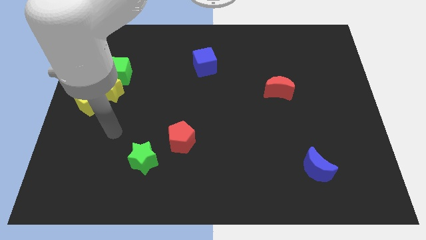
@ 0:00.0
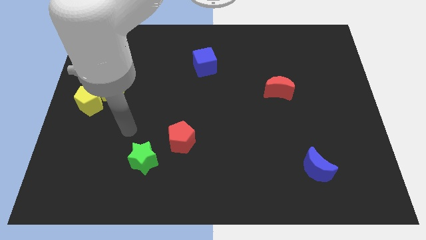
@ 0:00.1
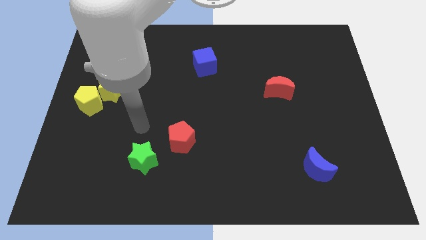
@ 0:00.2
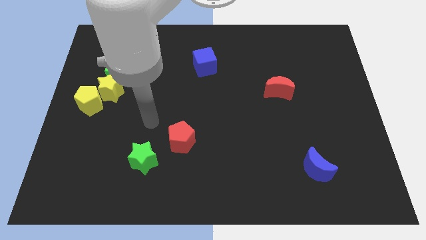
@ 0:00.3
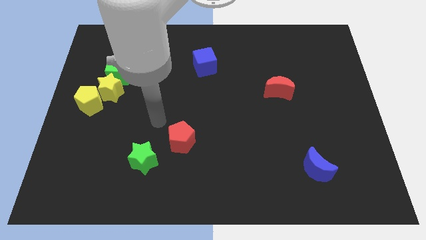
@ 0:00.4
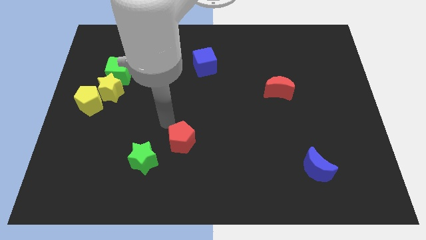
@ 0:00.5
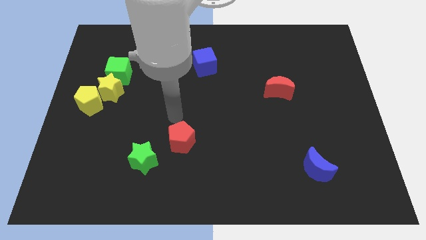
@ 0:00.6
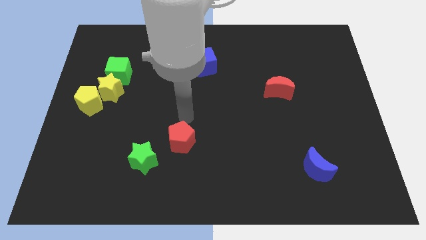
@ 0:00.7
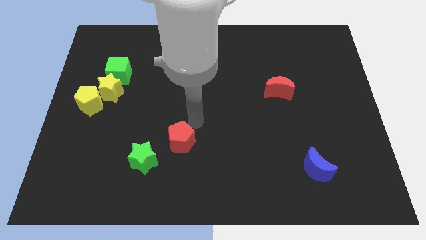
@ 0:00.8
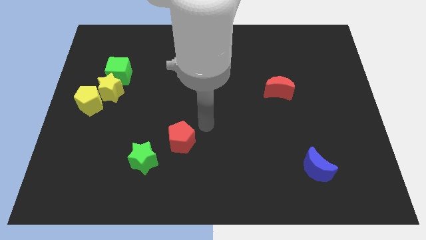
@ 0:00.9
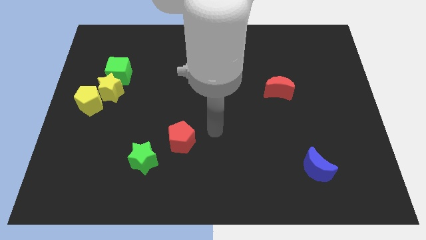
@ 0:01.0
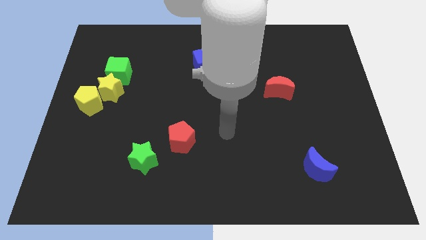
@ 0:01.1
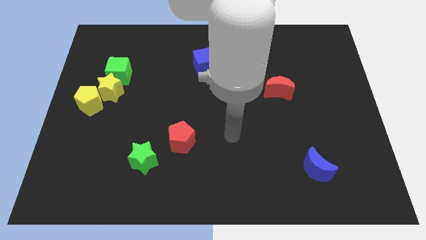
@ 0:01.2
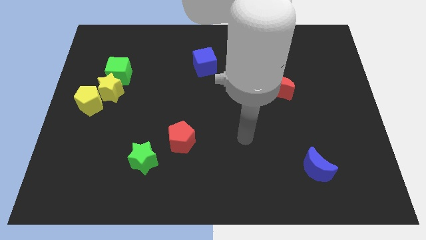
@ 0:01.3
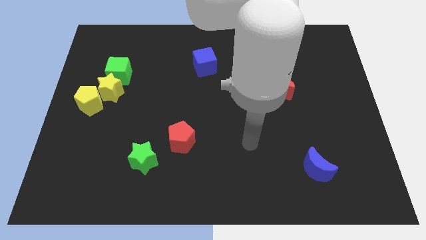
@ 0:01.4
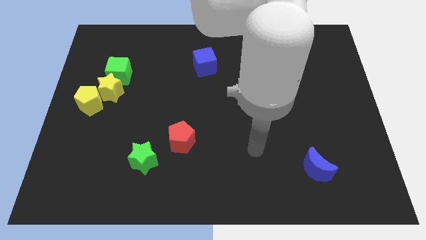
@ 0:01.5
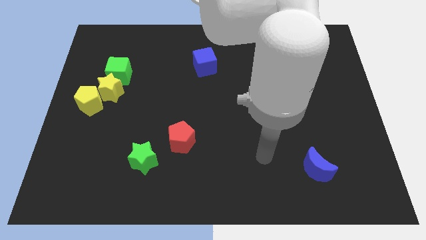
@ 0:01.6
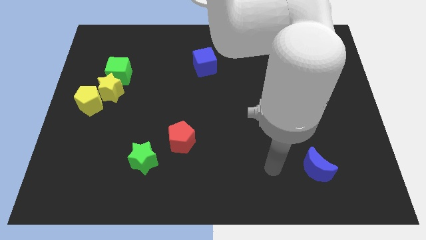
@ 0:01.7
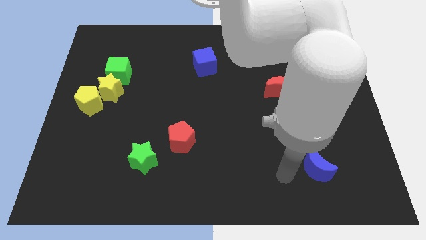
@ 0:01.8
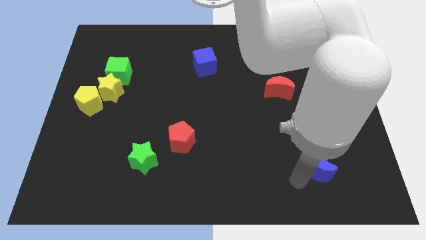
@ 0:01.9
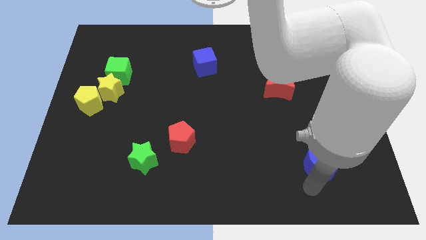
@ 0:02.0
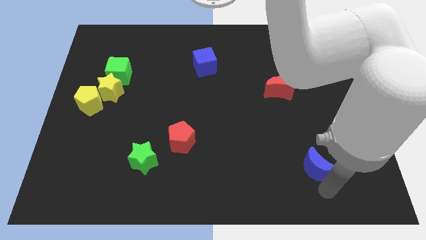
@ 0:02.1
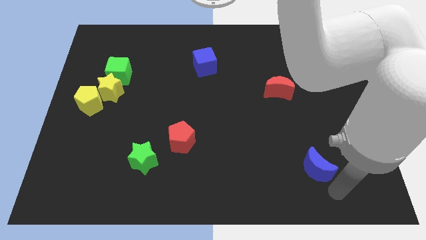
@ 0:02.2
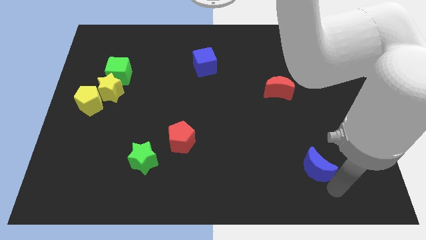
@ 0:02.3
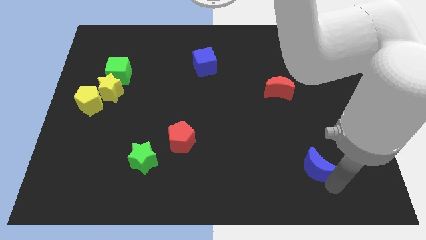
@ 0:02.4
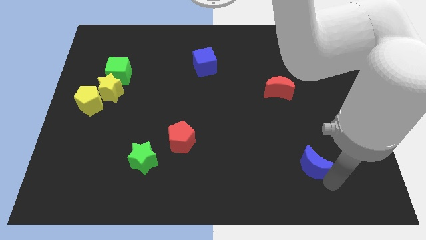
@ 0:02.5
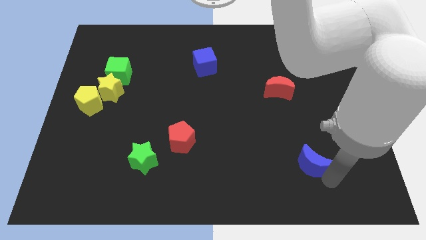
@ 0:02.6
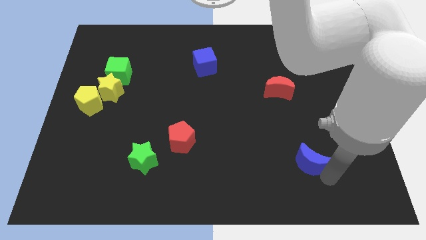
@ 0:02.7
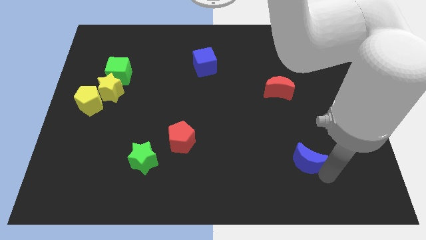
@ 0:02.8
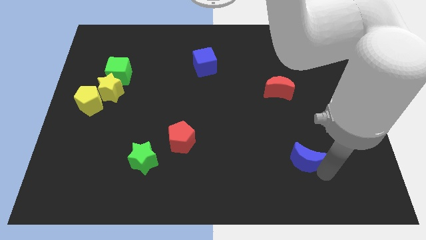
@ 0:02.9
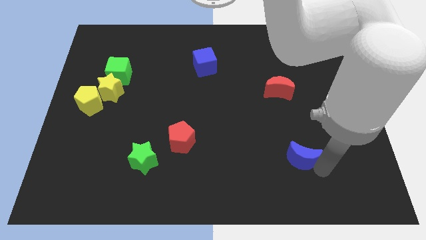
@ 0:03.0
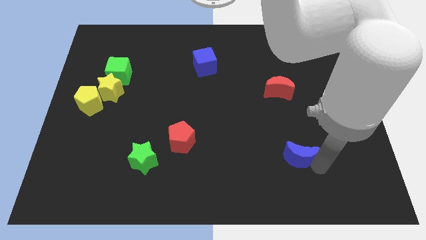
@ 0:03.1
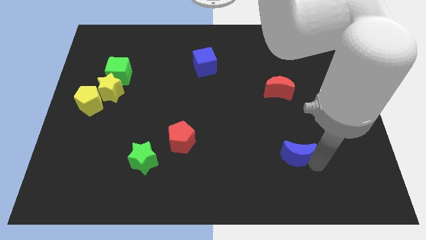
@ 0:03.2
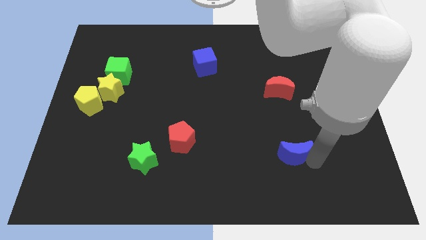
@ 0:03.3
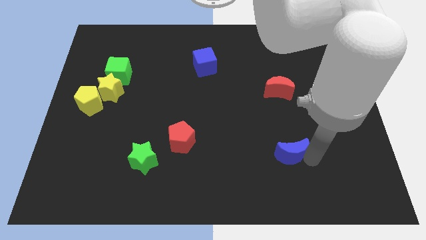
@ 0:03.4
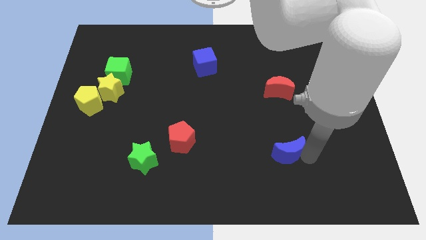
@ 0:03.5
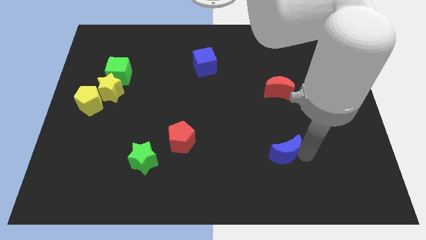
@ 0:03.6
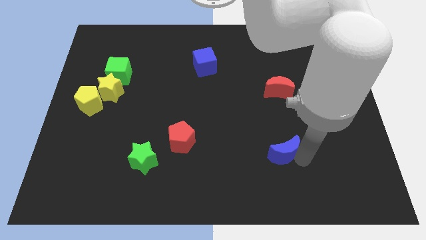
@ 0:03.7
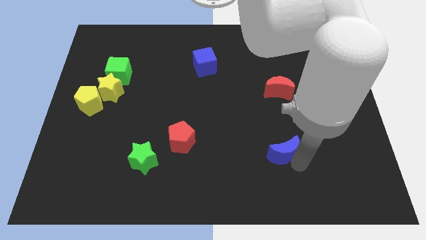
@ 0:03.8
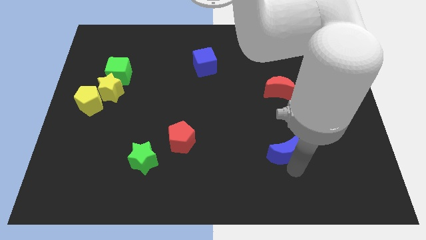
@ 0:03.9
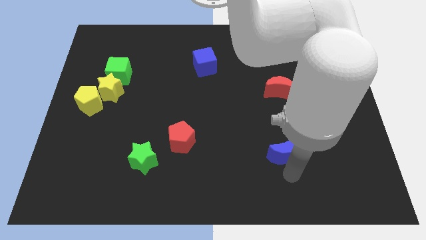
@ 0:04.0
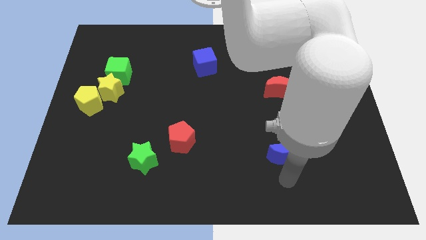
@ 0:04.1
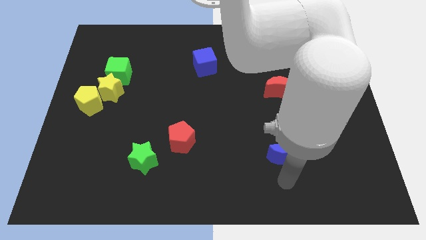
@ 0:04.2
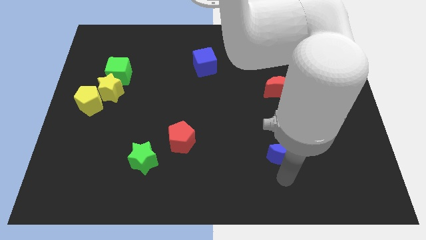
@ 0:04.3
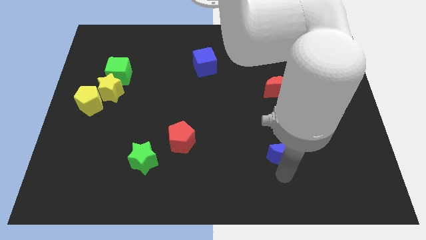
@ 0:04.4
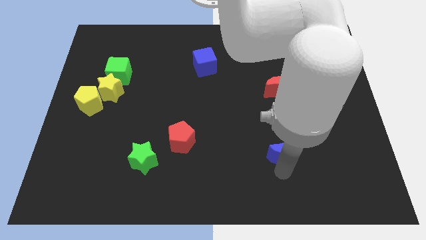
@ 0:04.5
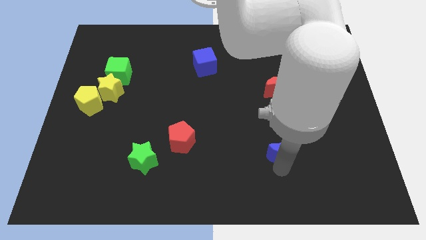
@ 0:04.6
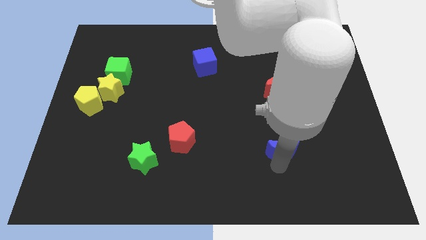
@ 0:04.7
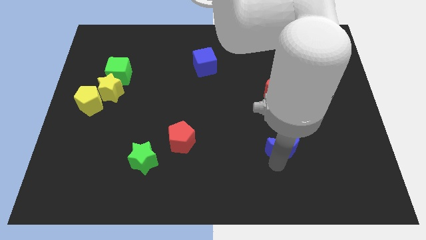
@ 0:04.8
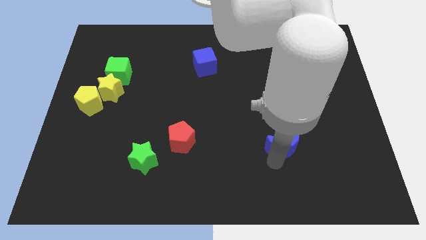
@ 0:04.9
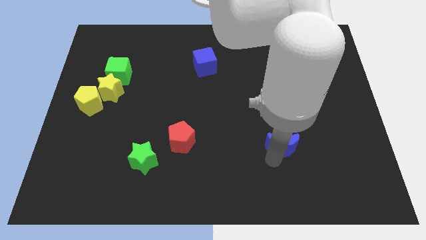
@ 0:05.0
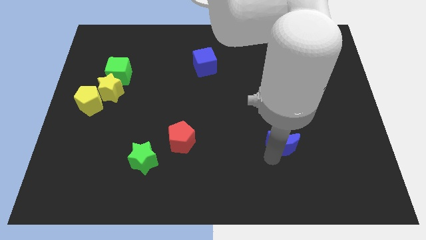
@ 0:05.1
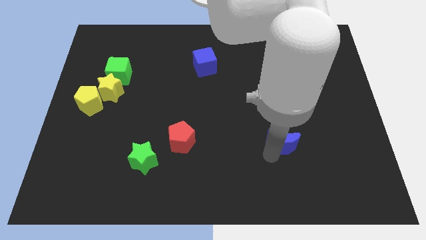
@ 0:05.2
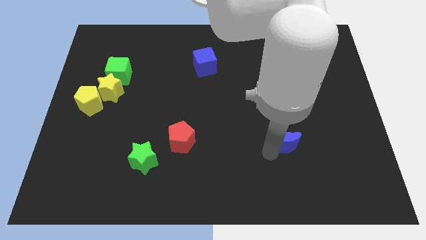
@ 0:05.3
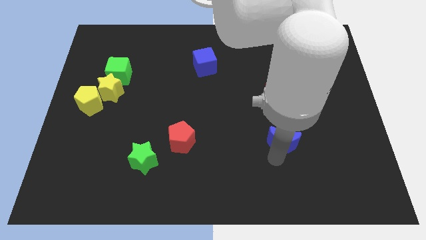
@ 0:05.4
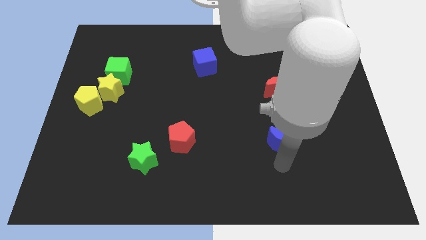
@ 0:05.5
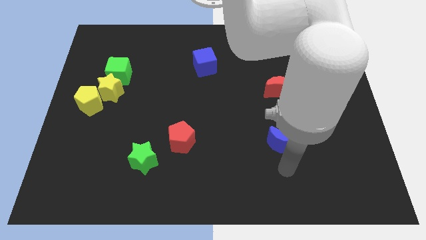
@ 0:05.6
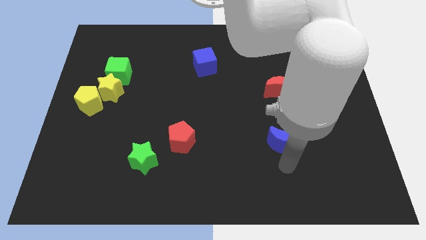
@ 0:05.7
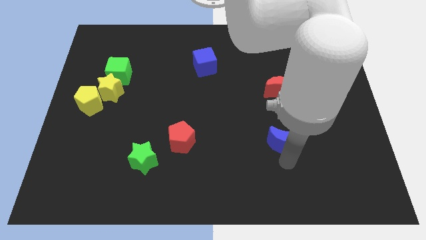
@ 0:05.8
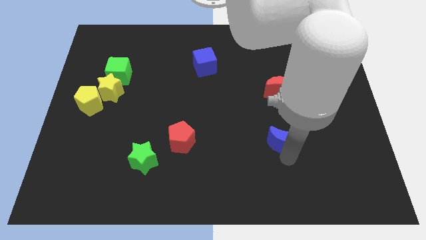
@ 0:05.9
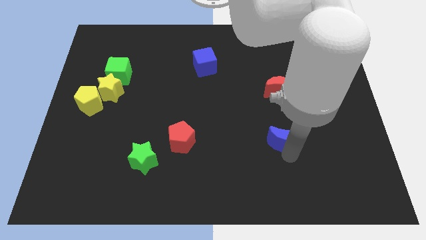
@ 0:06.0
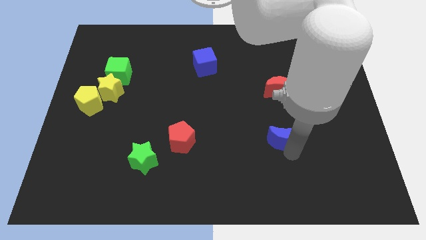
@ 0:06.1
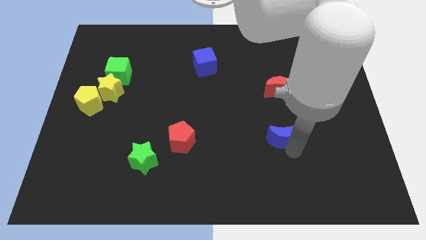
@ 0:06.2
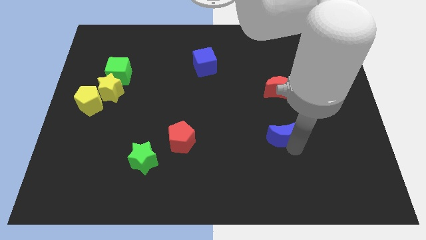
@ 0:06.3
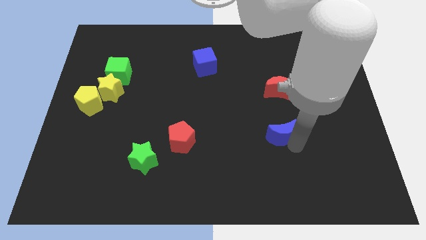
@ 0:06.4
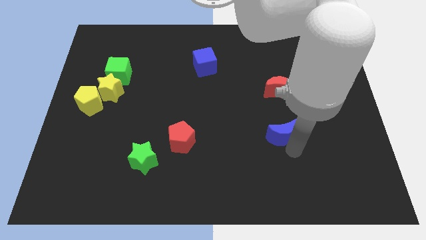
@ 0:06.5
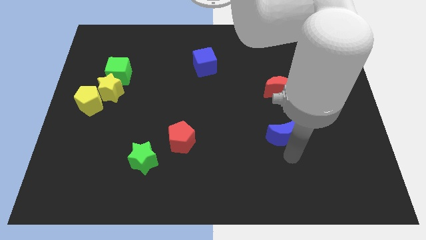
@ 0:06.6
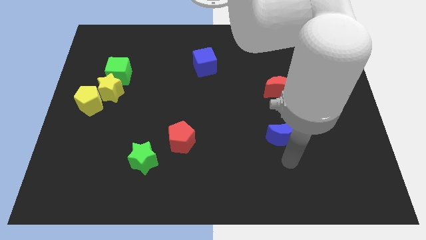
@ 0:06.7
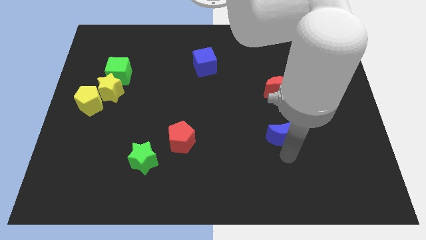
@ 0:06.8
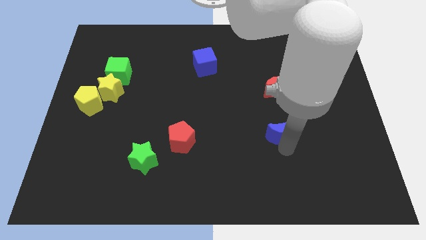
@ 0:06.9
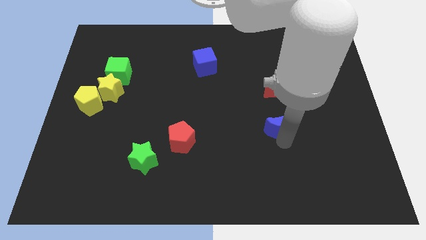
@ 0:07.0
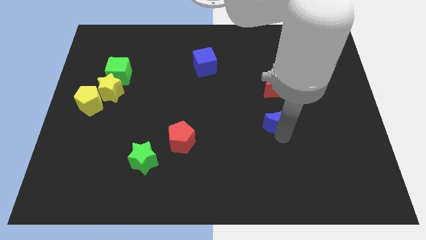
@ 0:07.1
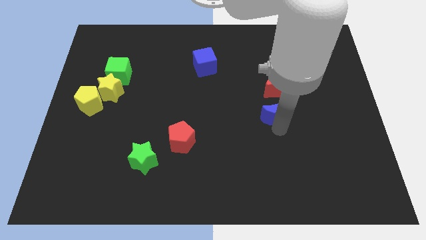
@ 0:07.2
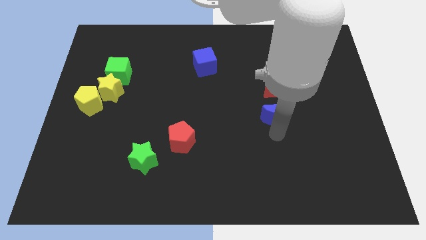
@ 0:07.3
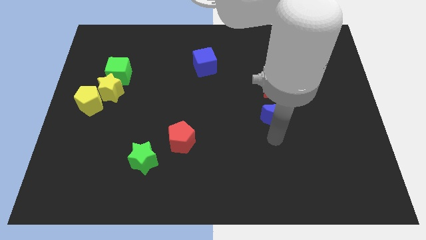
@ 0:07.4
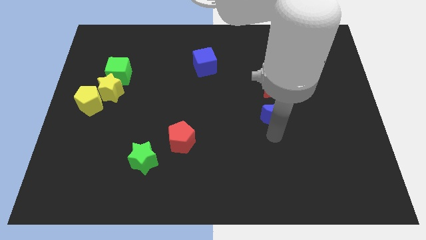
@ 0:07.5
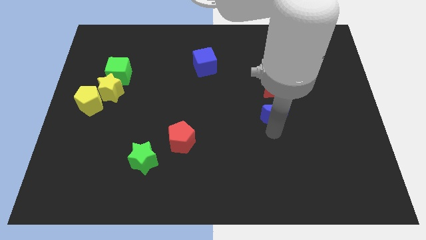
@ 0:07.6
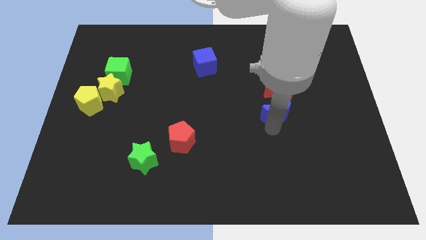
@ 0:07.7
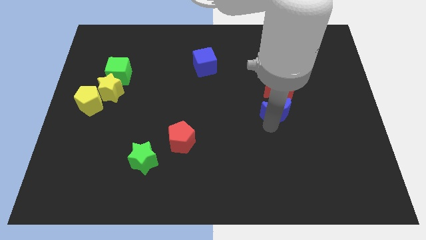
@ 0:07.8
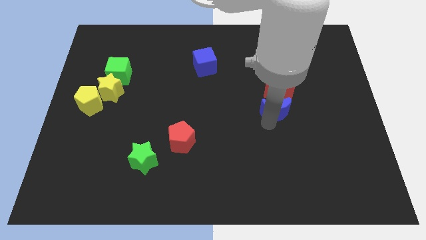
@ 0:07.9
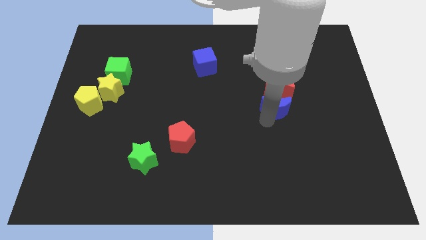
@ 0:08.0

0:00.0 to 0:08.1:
slide the blue moon towards the red moon
